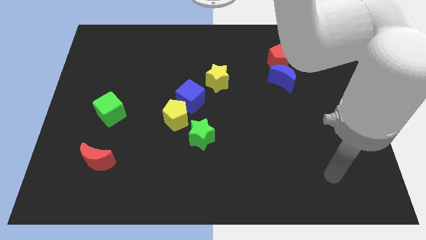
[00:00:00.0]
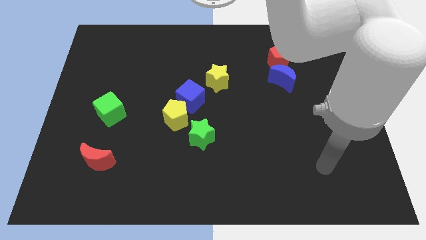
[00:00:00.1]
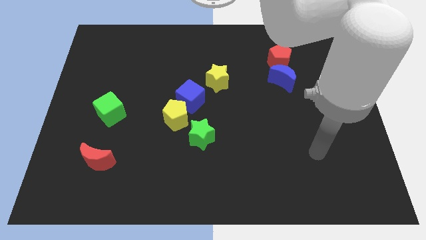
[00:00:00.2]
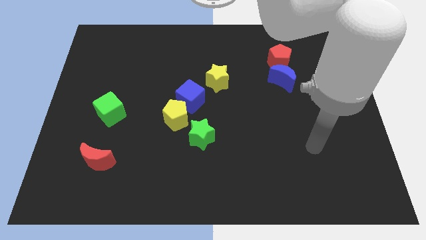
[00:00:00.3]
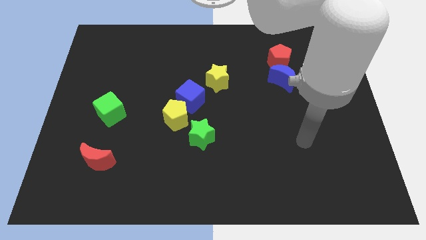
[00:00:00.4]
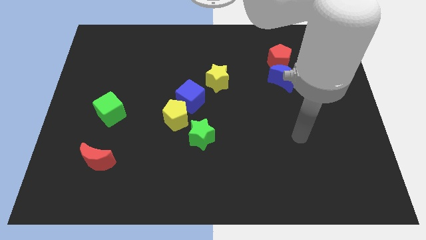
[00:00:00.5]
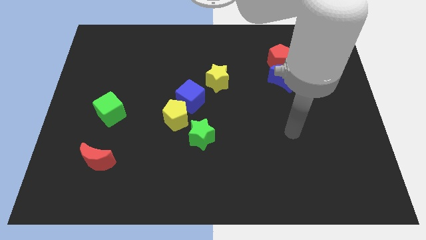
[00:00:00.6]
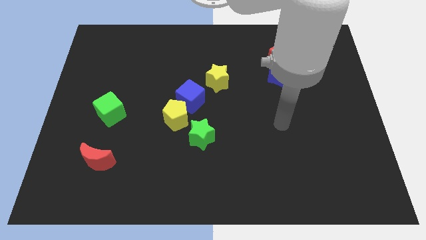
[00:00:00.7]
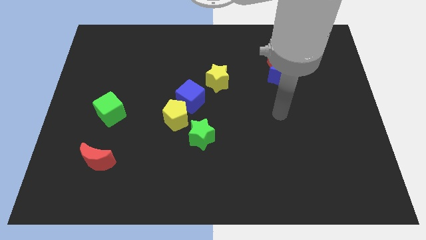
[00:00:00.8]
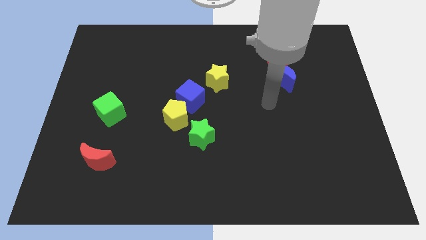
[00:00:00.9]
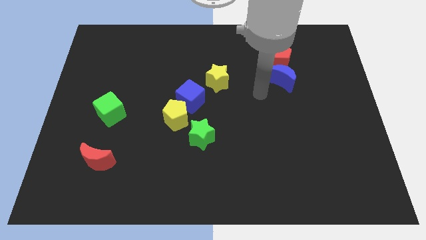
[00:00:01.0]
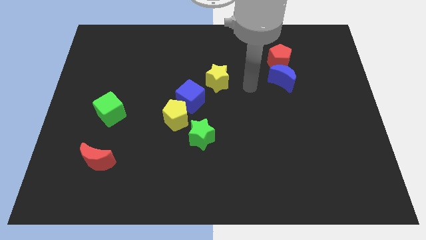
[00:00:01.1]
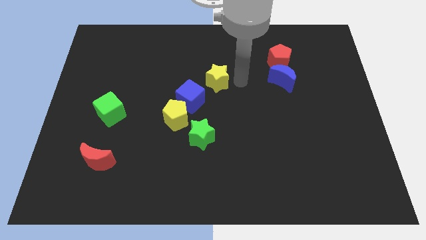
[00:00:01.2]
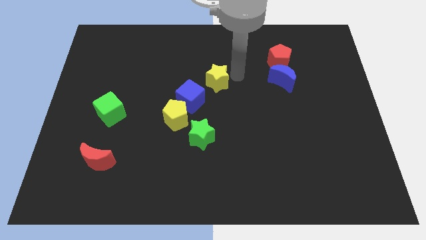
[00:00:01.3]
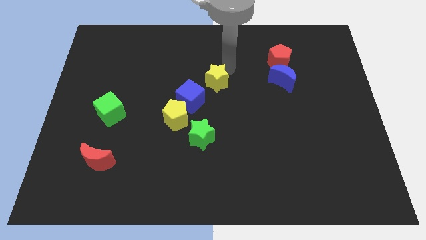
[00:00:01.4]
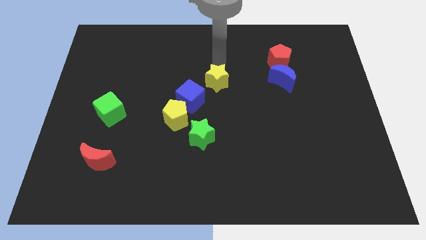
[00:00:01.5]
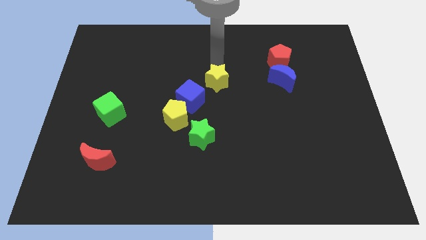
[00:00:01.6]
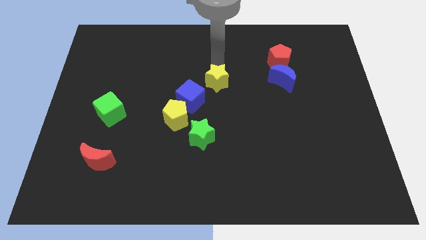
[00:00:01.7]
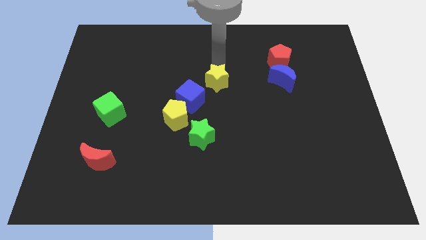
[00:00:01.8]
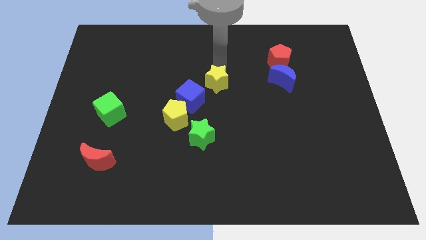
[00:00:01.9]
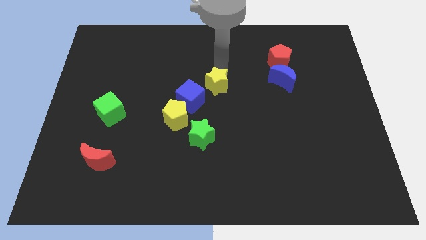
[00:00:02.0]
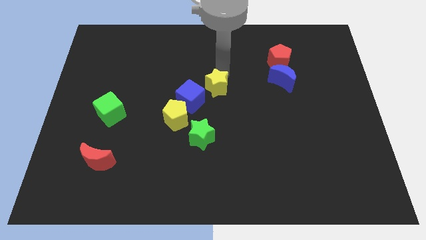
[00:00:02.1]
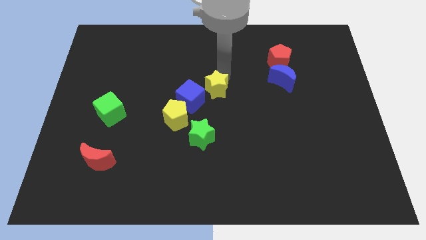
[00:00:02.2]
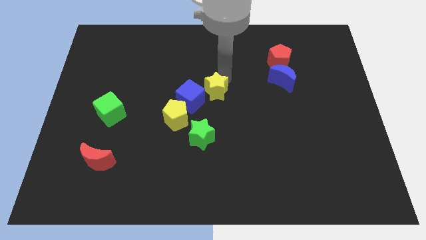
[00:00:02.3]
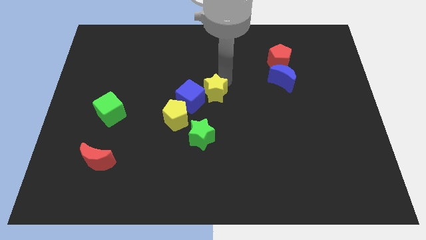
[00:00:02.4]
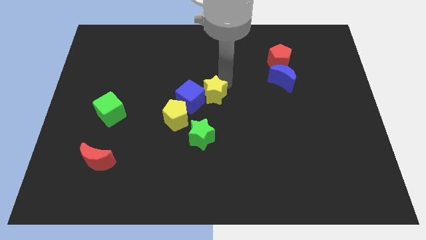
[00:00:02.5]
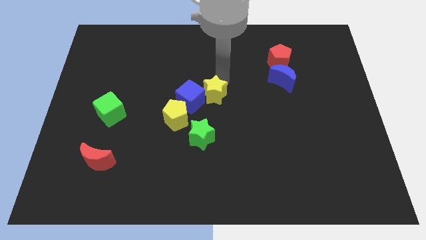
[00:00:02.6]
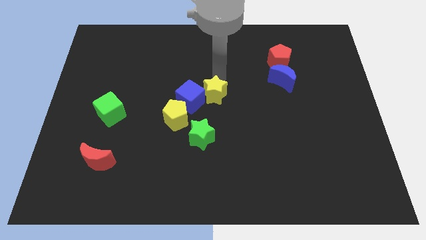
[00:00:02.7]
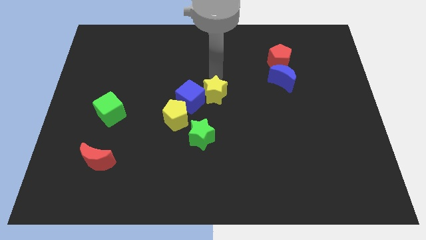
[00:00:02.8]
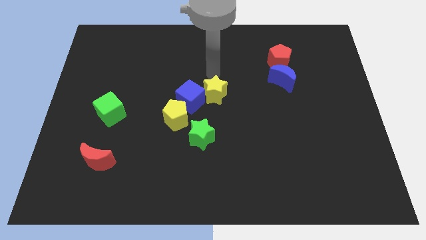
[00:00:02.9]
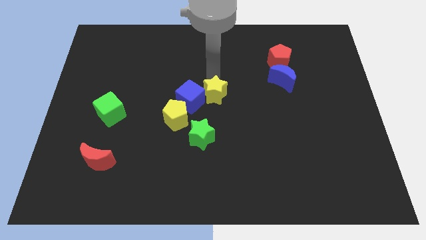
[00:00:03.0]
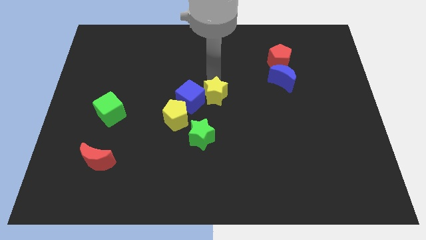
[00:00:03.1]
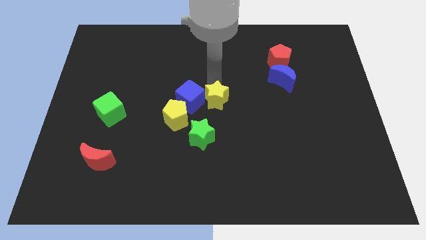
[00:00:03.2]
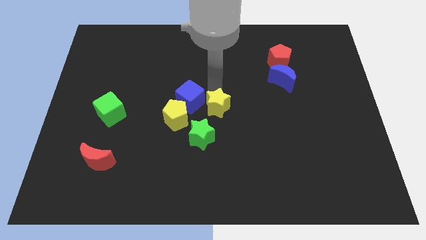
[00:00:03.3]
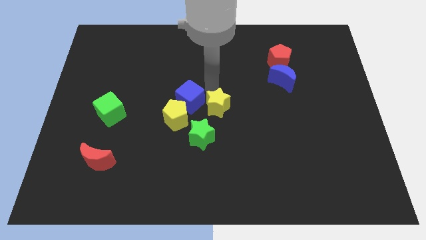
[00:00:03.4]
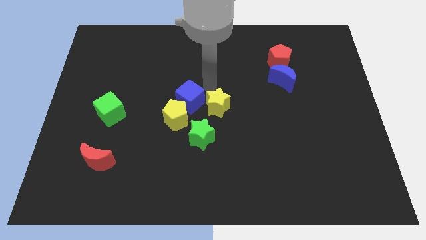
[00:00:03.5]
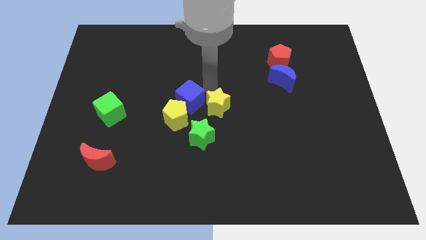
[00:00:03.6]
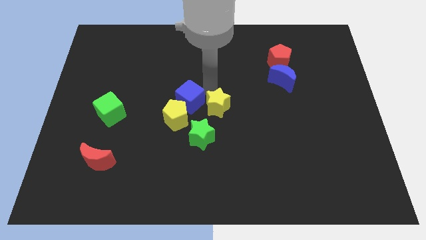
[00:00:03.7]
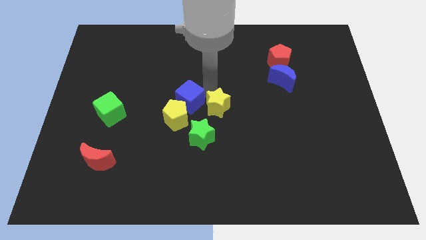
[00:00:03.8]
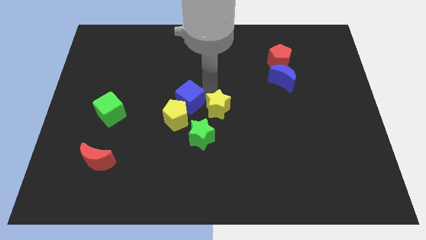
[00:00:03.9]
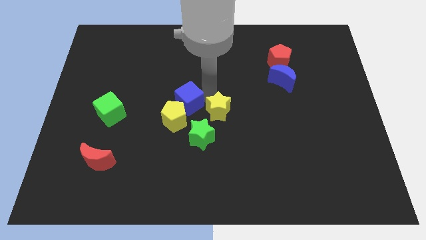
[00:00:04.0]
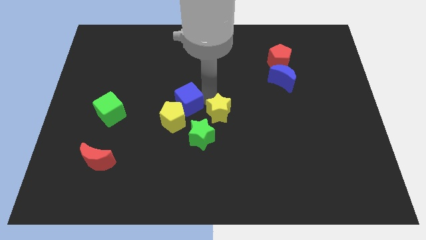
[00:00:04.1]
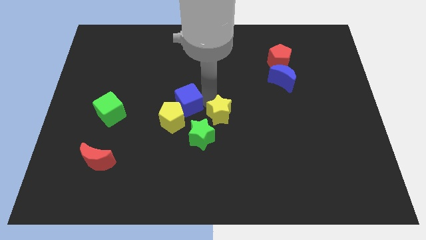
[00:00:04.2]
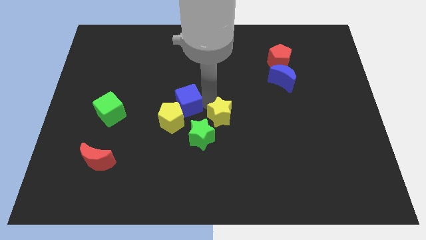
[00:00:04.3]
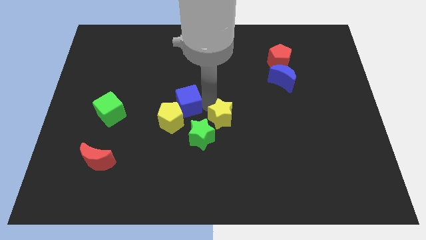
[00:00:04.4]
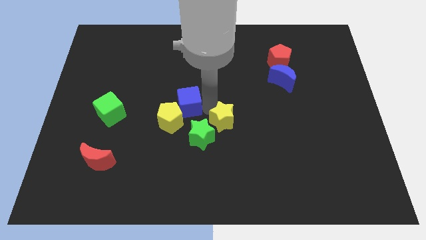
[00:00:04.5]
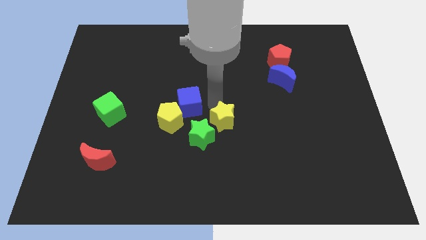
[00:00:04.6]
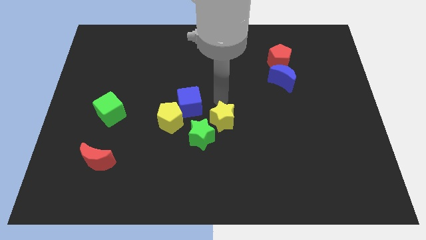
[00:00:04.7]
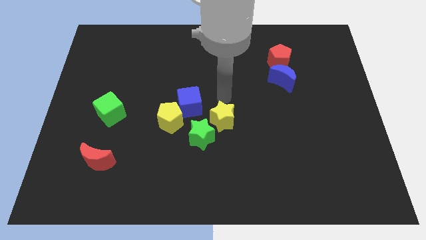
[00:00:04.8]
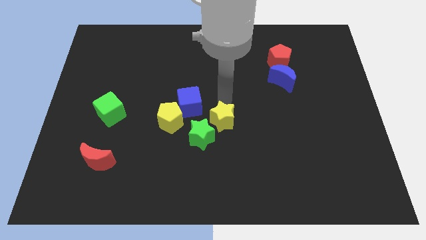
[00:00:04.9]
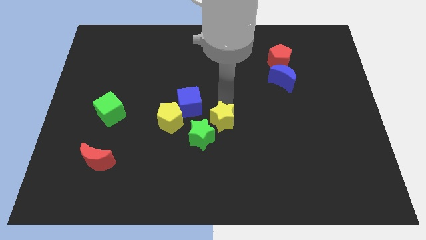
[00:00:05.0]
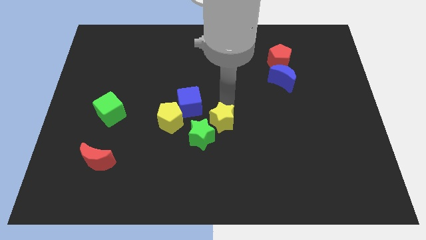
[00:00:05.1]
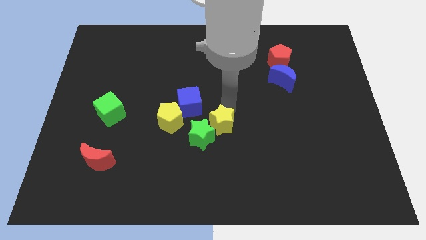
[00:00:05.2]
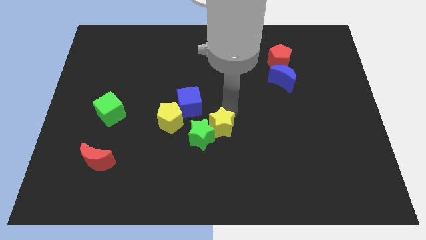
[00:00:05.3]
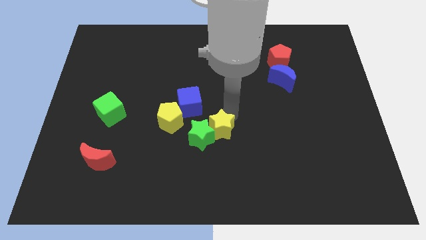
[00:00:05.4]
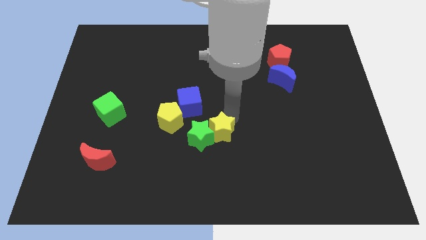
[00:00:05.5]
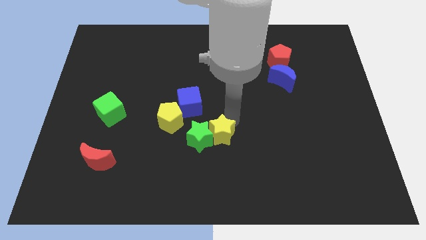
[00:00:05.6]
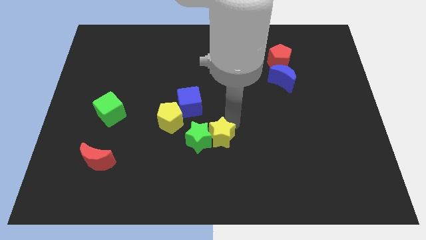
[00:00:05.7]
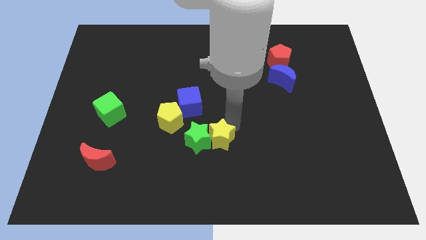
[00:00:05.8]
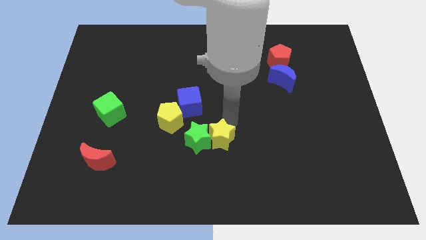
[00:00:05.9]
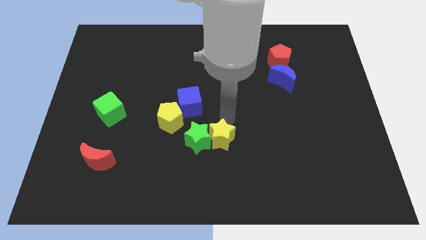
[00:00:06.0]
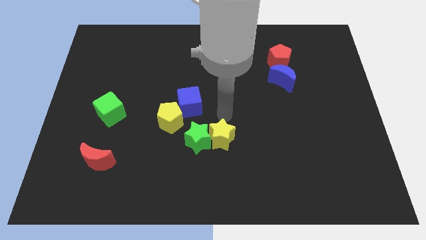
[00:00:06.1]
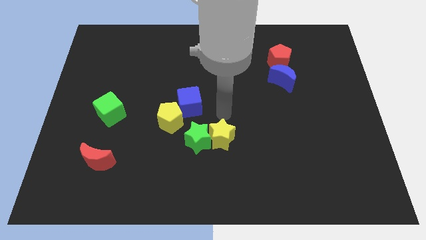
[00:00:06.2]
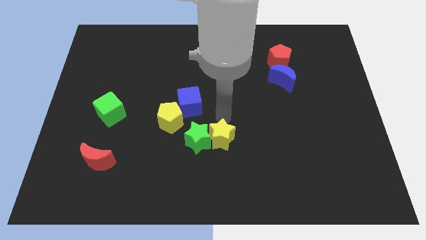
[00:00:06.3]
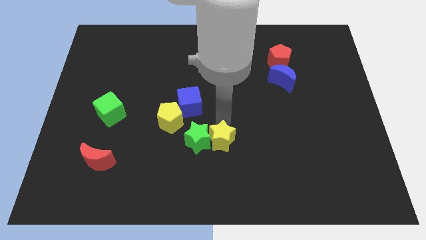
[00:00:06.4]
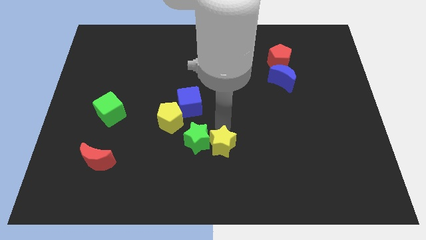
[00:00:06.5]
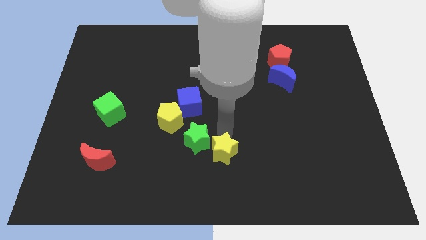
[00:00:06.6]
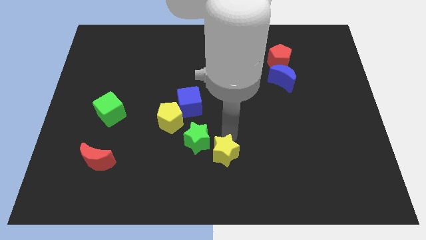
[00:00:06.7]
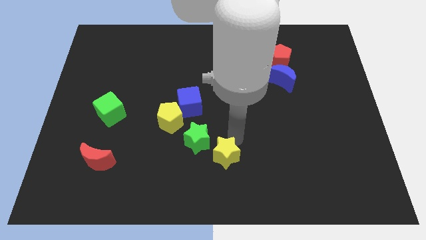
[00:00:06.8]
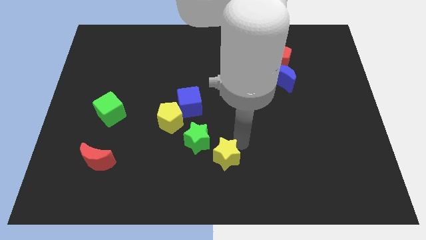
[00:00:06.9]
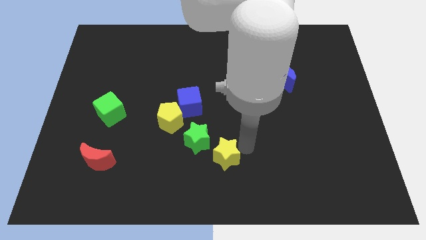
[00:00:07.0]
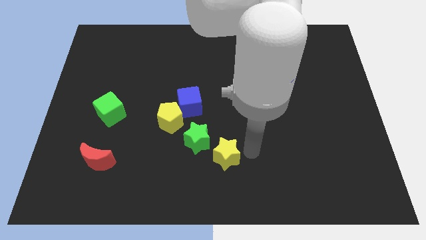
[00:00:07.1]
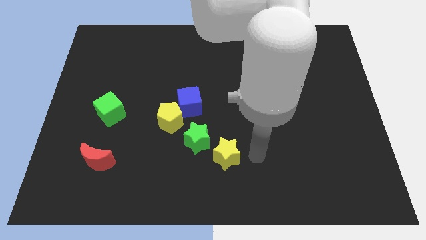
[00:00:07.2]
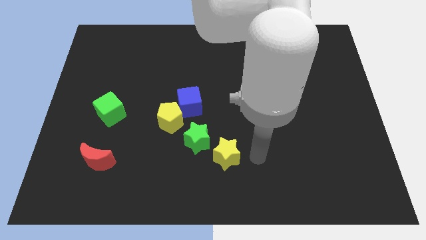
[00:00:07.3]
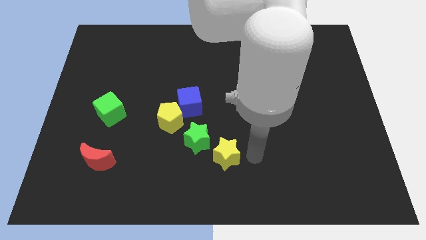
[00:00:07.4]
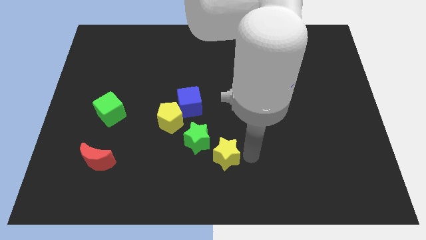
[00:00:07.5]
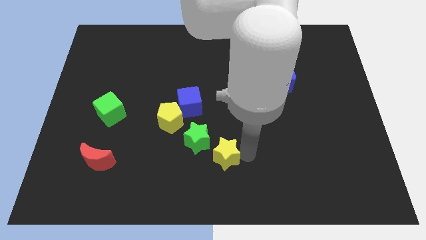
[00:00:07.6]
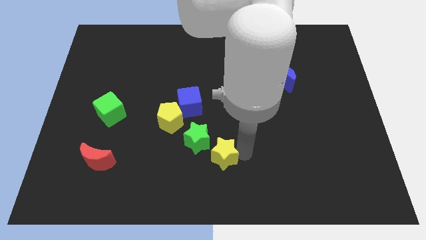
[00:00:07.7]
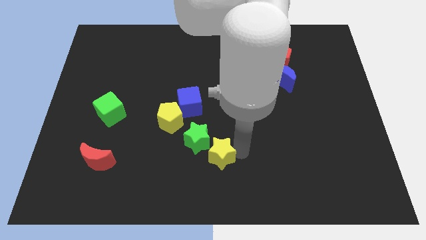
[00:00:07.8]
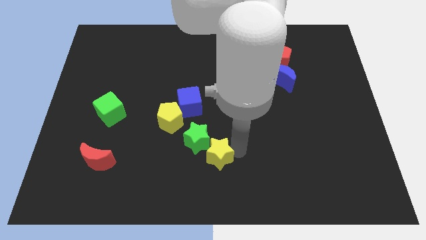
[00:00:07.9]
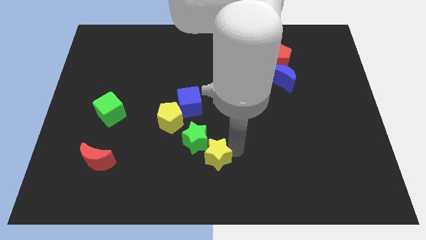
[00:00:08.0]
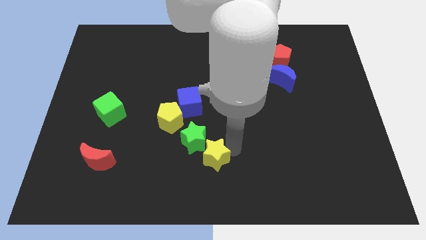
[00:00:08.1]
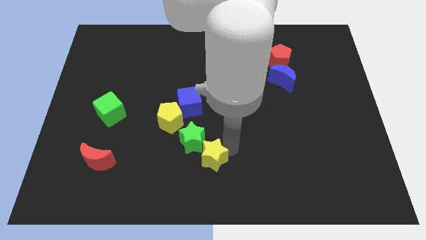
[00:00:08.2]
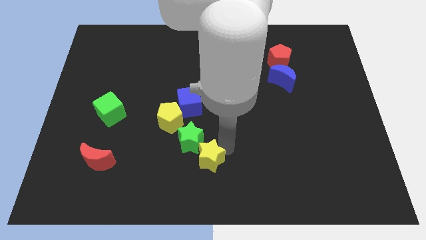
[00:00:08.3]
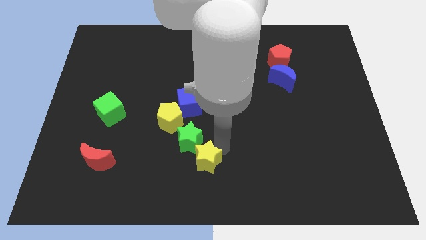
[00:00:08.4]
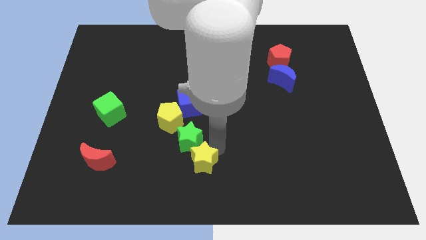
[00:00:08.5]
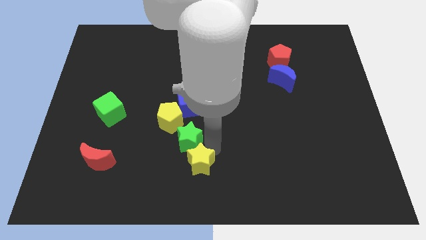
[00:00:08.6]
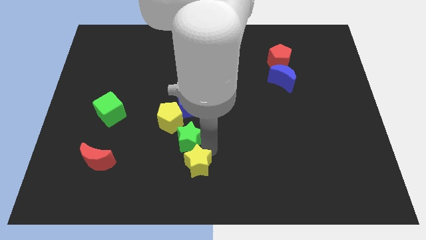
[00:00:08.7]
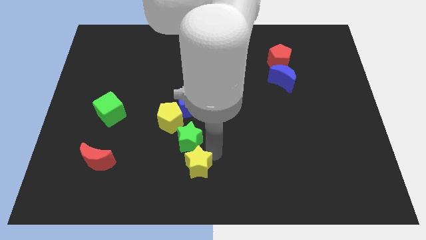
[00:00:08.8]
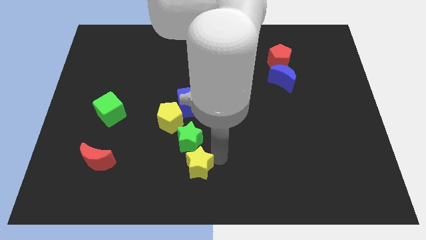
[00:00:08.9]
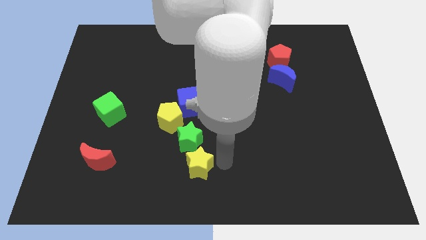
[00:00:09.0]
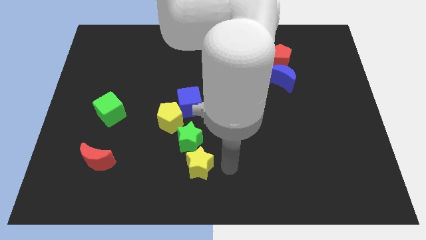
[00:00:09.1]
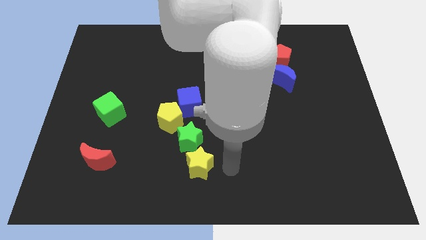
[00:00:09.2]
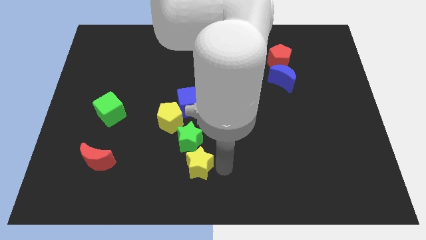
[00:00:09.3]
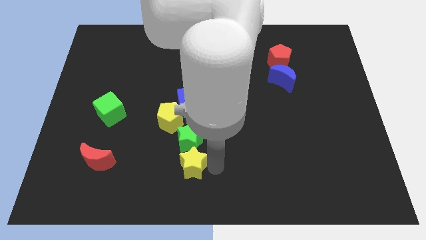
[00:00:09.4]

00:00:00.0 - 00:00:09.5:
move the yellow star to the bottom left of the green star
